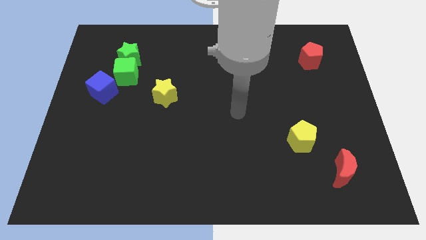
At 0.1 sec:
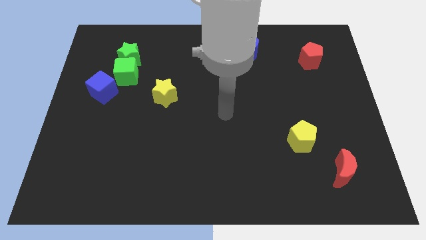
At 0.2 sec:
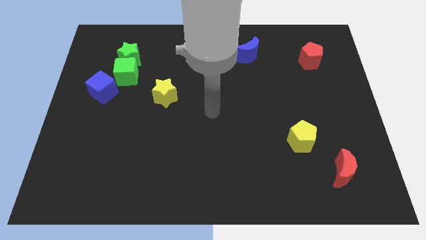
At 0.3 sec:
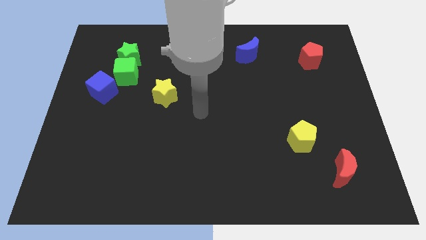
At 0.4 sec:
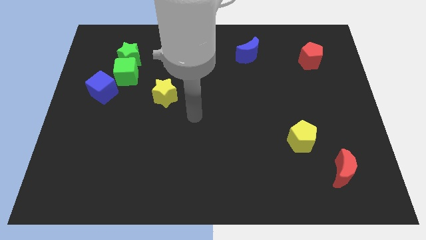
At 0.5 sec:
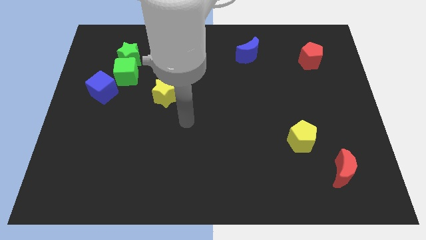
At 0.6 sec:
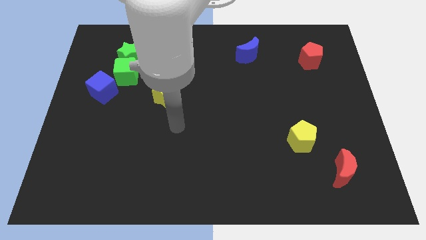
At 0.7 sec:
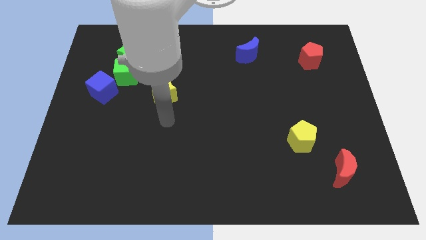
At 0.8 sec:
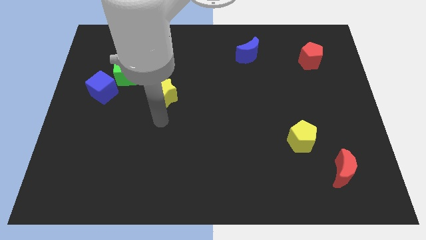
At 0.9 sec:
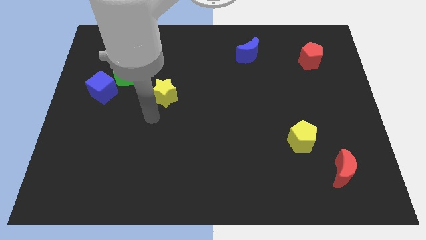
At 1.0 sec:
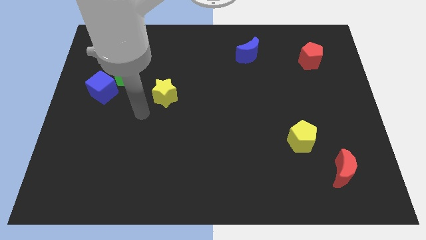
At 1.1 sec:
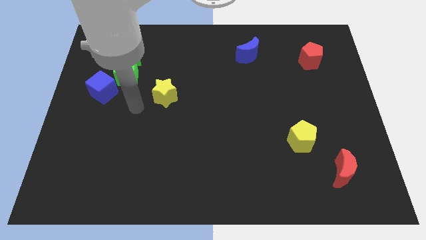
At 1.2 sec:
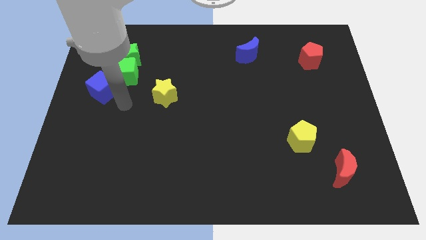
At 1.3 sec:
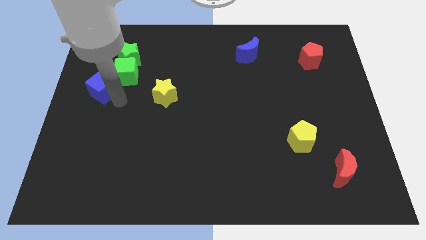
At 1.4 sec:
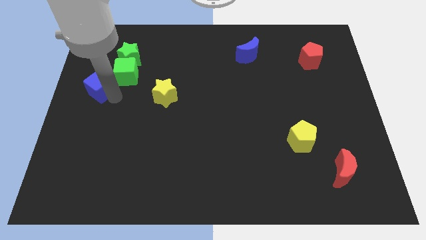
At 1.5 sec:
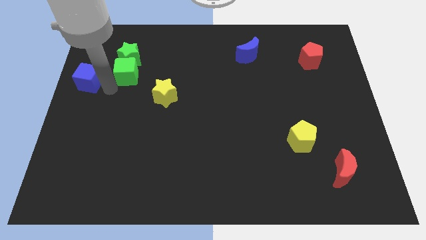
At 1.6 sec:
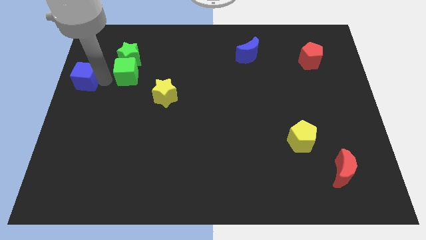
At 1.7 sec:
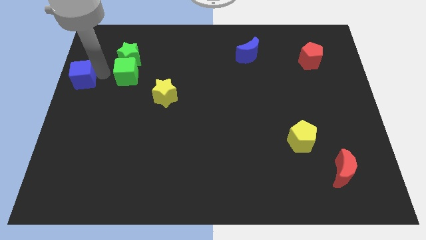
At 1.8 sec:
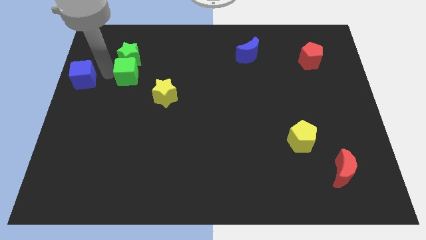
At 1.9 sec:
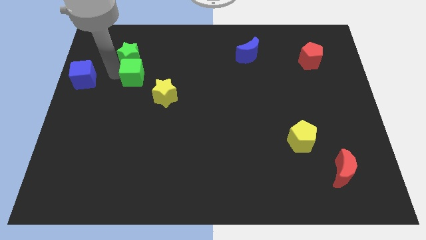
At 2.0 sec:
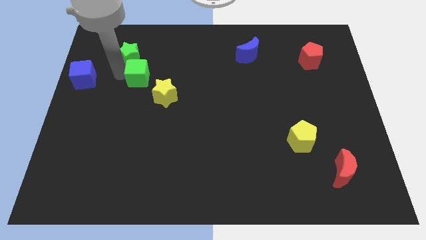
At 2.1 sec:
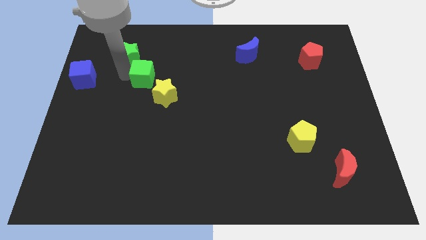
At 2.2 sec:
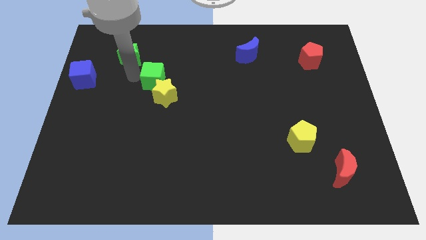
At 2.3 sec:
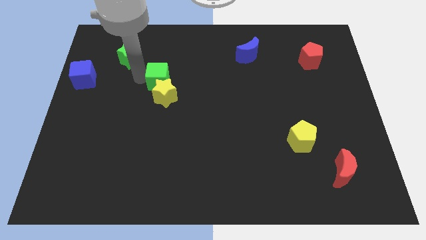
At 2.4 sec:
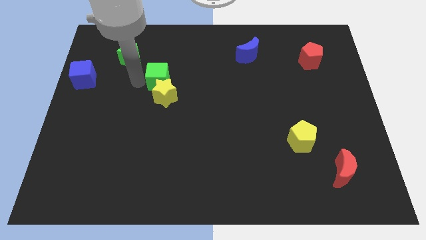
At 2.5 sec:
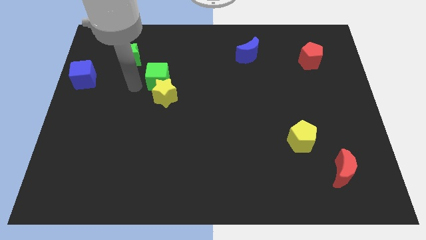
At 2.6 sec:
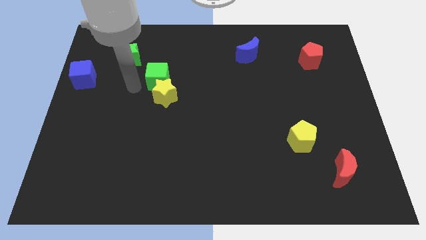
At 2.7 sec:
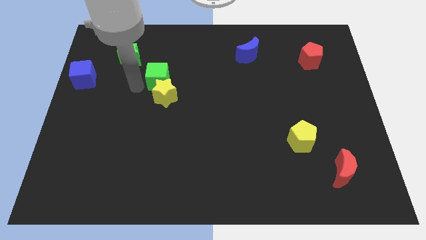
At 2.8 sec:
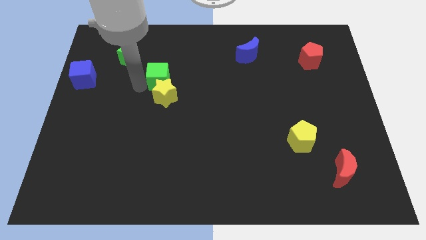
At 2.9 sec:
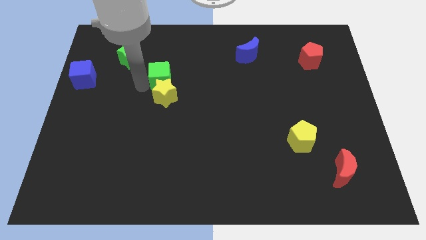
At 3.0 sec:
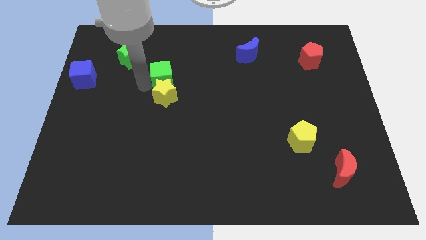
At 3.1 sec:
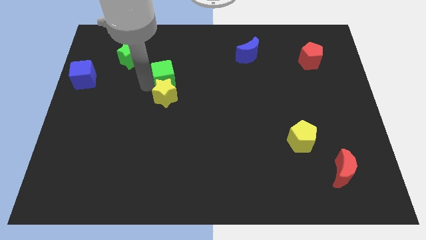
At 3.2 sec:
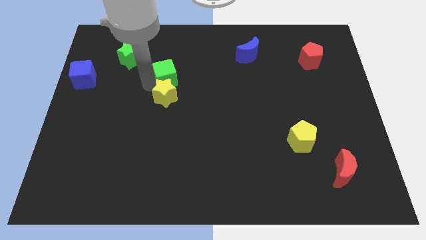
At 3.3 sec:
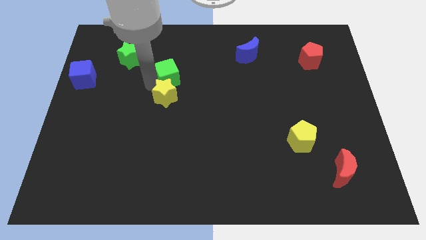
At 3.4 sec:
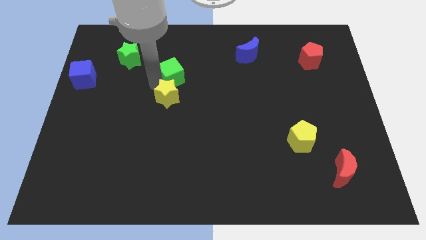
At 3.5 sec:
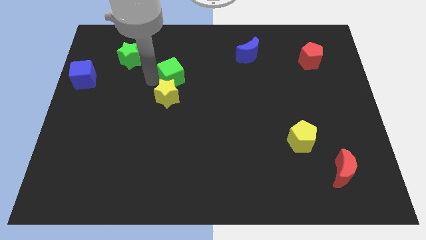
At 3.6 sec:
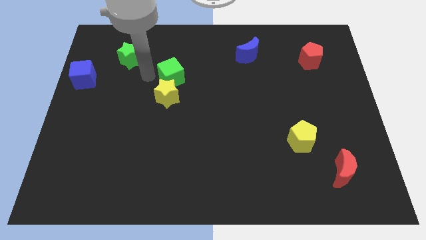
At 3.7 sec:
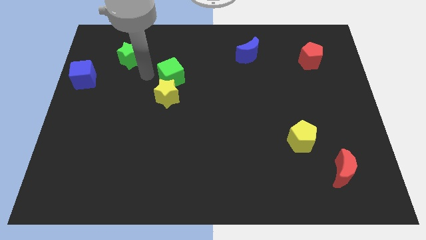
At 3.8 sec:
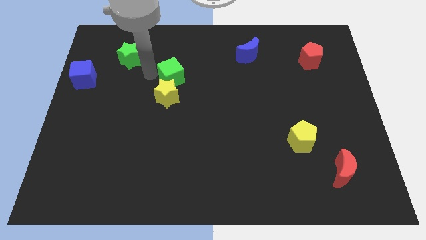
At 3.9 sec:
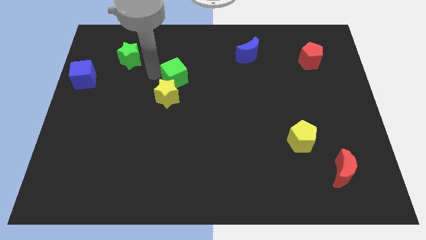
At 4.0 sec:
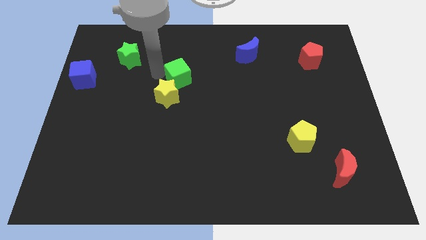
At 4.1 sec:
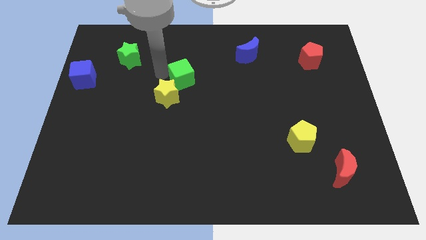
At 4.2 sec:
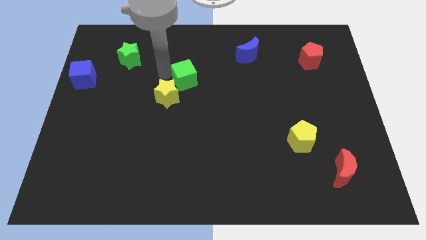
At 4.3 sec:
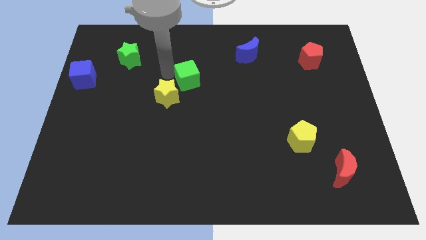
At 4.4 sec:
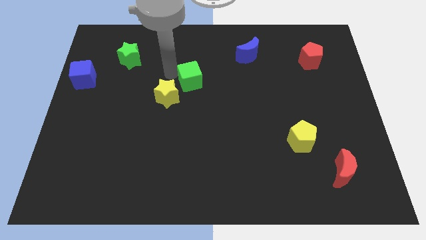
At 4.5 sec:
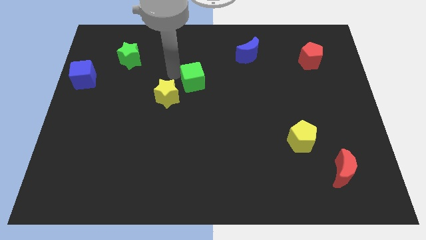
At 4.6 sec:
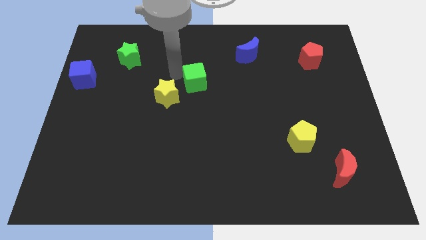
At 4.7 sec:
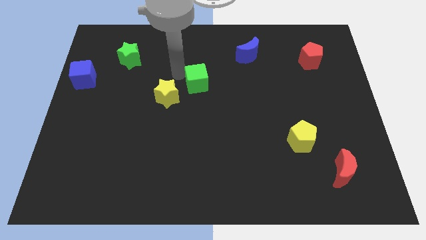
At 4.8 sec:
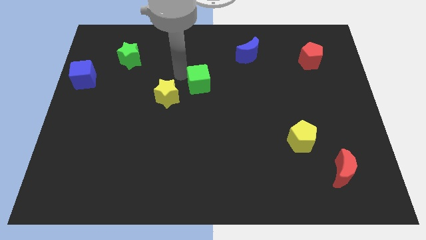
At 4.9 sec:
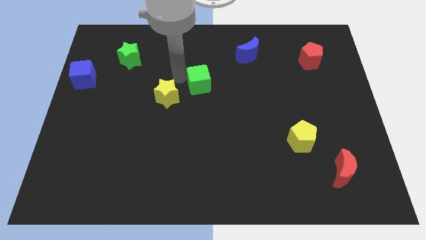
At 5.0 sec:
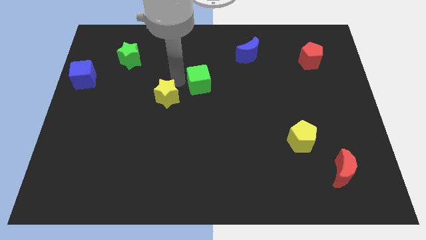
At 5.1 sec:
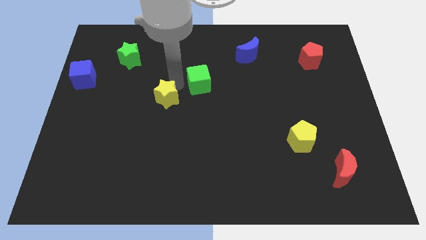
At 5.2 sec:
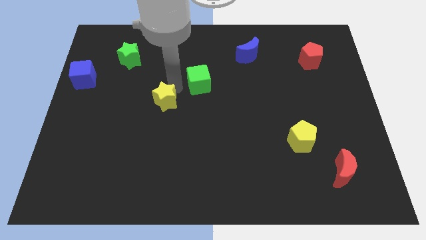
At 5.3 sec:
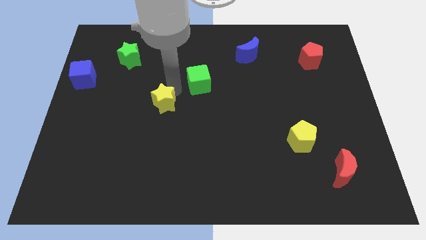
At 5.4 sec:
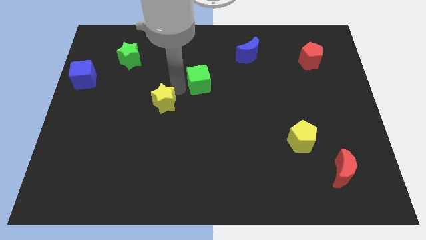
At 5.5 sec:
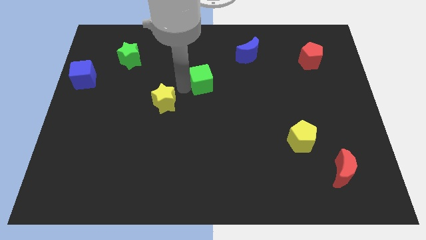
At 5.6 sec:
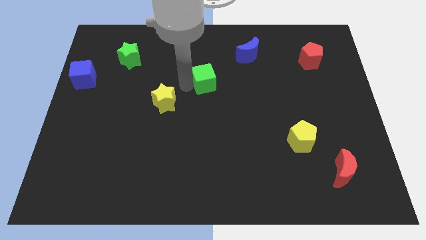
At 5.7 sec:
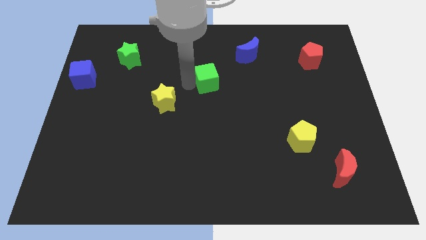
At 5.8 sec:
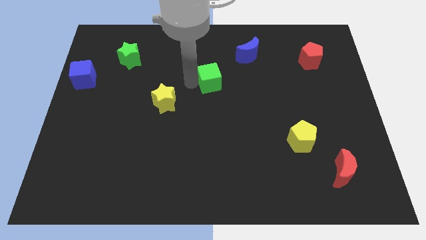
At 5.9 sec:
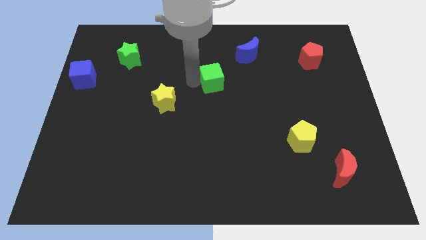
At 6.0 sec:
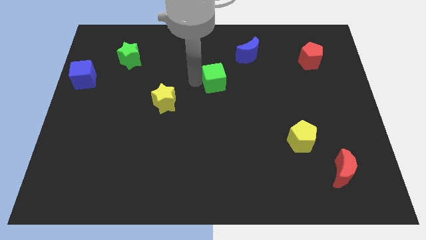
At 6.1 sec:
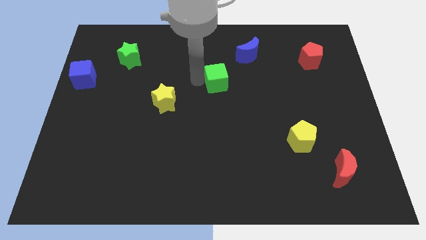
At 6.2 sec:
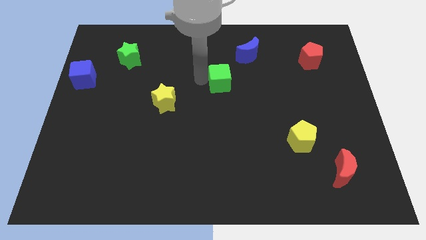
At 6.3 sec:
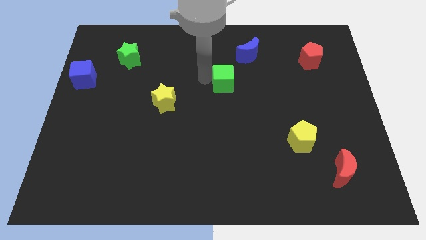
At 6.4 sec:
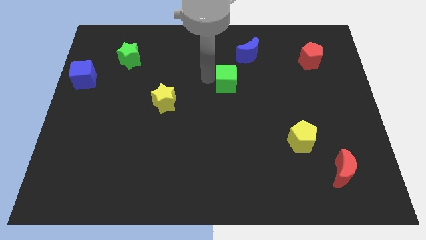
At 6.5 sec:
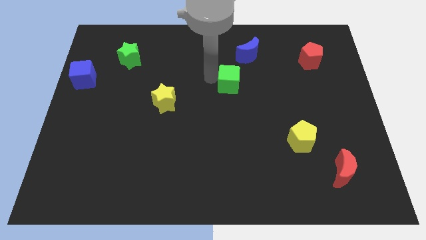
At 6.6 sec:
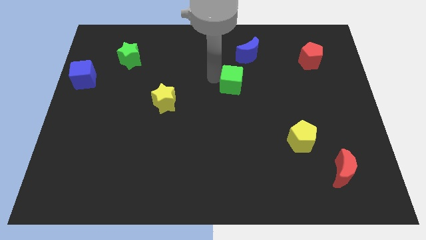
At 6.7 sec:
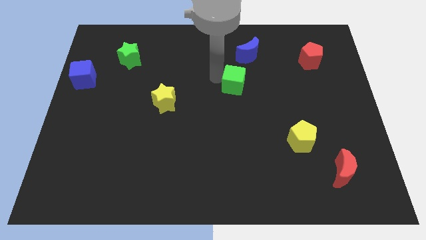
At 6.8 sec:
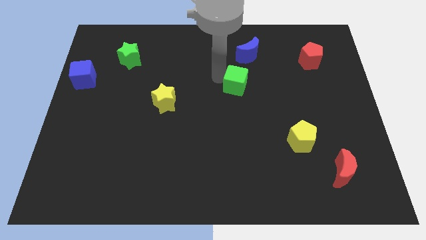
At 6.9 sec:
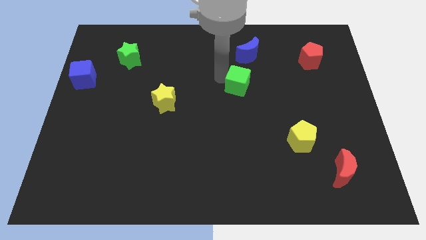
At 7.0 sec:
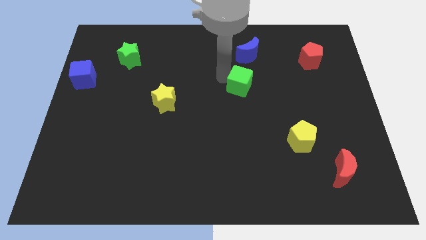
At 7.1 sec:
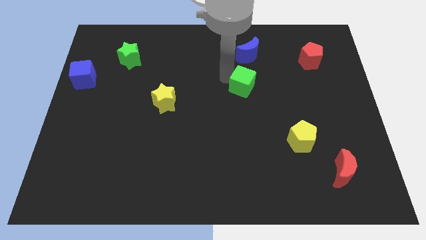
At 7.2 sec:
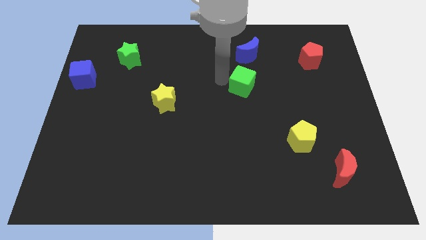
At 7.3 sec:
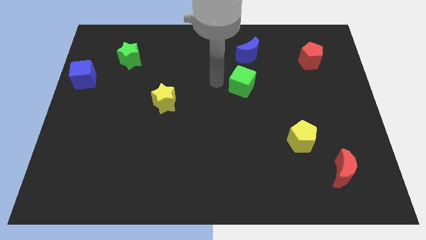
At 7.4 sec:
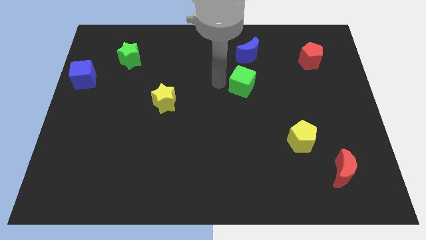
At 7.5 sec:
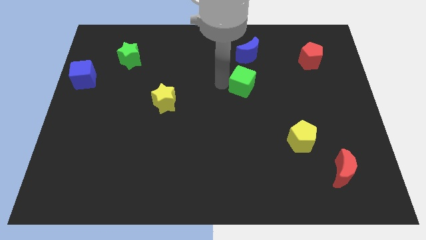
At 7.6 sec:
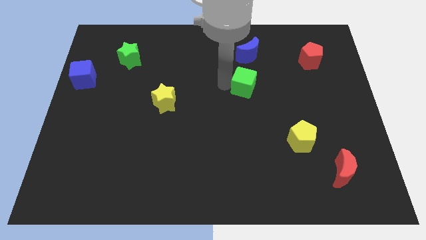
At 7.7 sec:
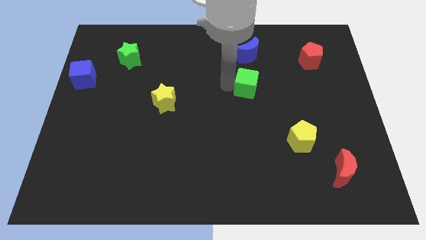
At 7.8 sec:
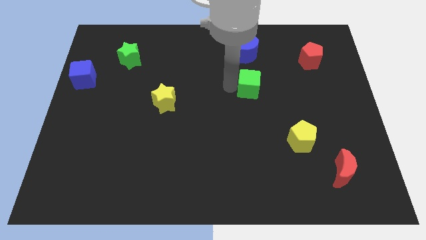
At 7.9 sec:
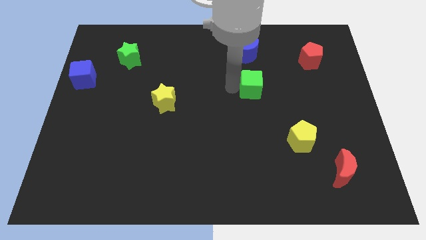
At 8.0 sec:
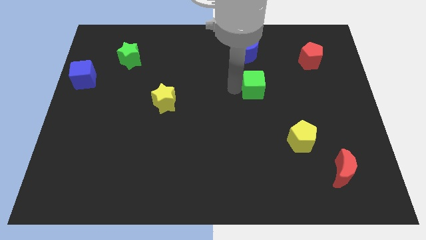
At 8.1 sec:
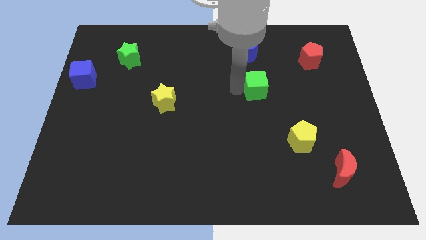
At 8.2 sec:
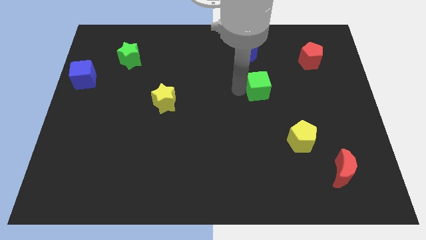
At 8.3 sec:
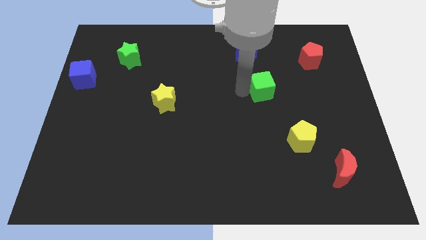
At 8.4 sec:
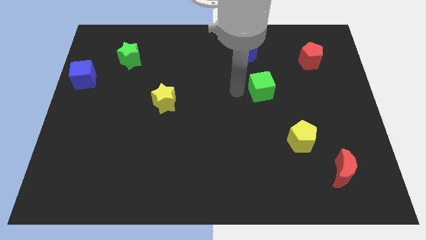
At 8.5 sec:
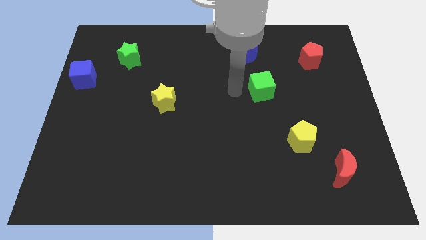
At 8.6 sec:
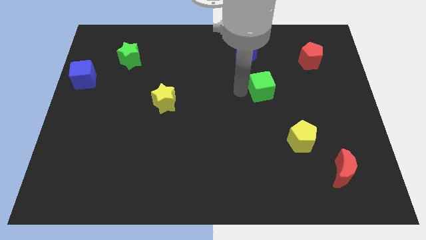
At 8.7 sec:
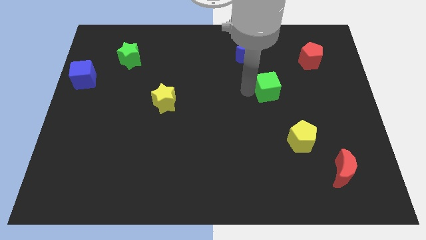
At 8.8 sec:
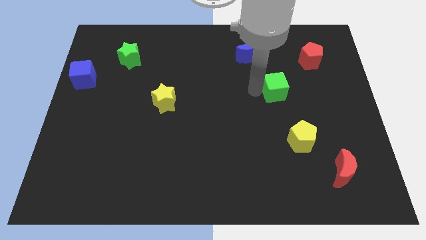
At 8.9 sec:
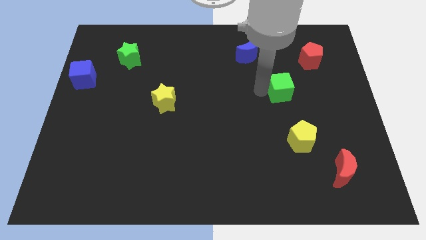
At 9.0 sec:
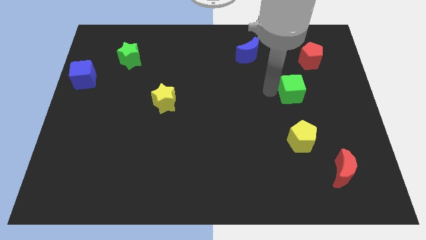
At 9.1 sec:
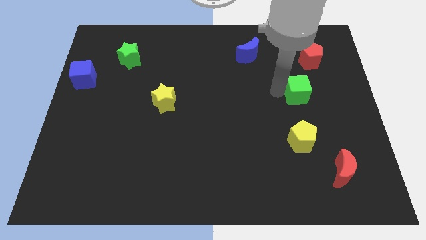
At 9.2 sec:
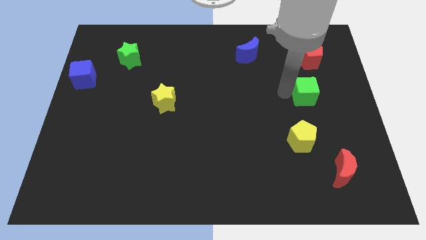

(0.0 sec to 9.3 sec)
put the green cube to the bottom of the red pentagon
